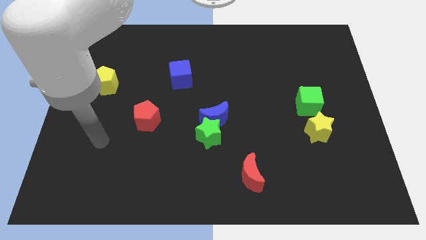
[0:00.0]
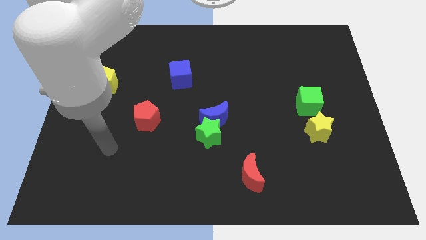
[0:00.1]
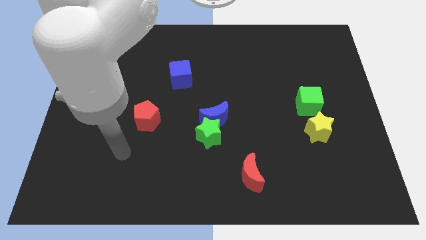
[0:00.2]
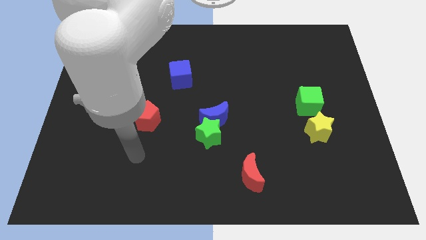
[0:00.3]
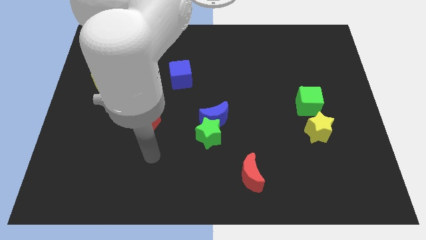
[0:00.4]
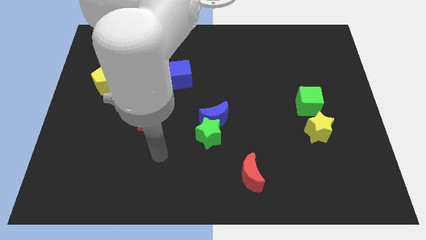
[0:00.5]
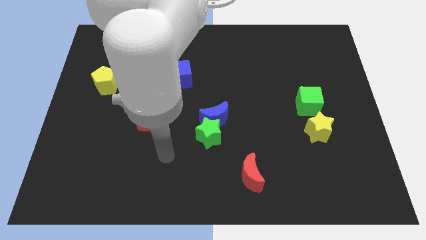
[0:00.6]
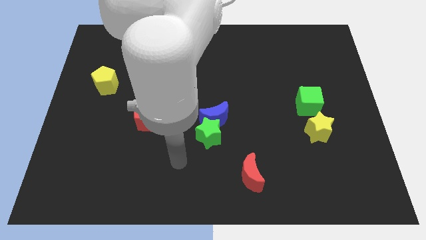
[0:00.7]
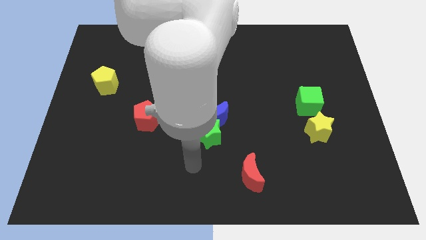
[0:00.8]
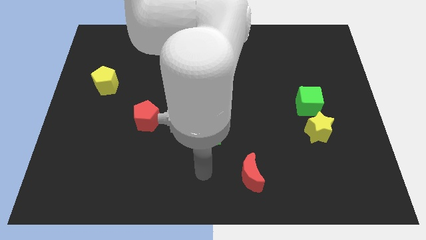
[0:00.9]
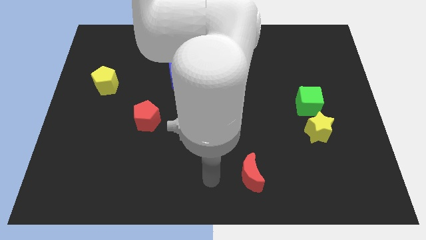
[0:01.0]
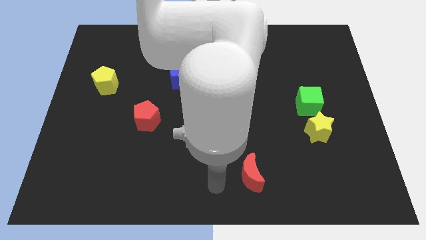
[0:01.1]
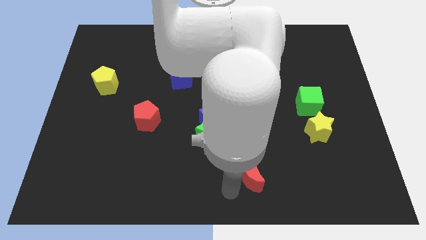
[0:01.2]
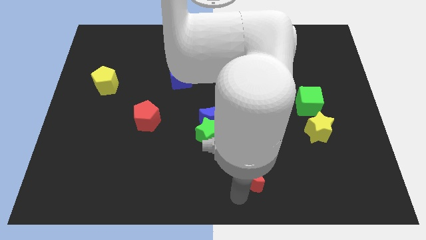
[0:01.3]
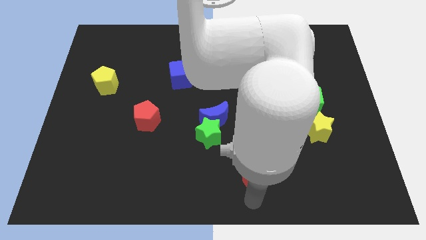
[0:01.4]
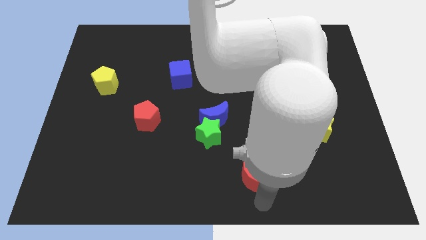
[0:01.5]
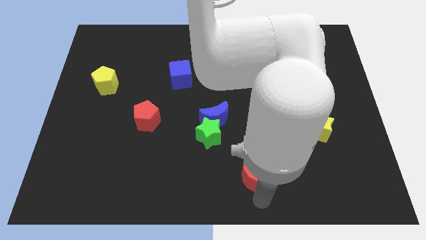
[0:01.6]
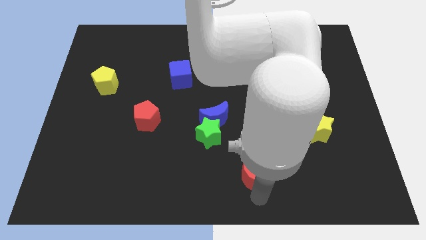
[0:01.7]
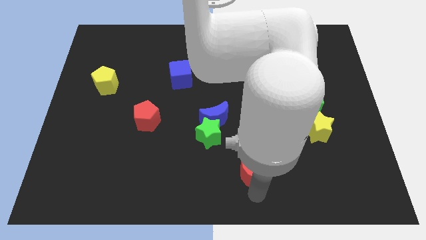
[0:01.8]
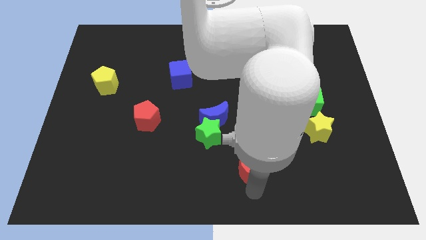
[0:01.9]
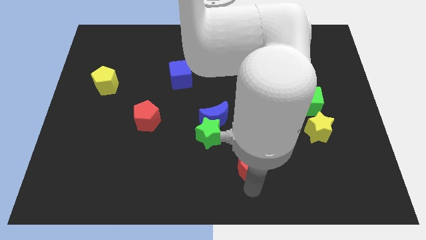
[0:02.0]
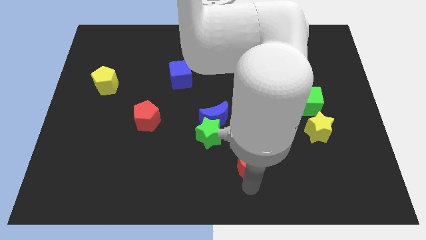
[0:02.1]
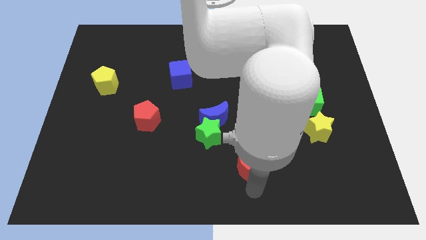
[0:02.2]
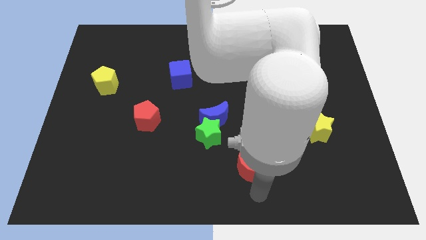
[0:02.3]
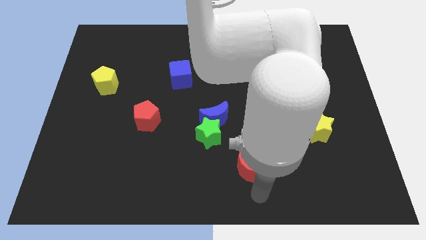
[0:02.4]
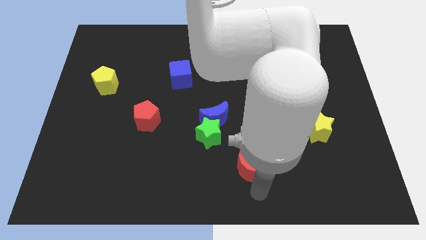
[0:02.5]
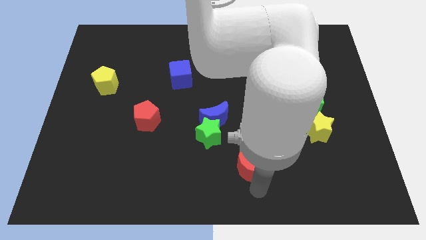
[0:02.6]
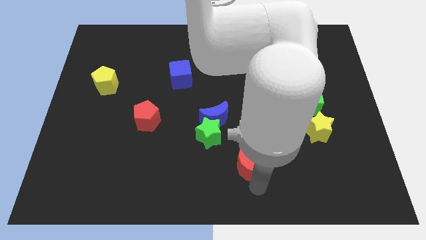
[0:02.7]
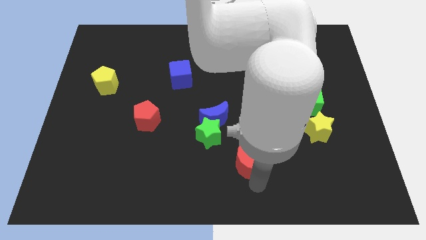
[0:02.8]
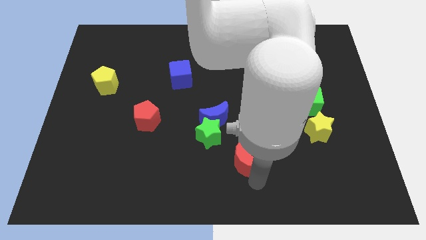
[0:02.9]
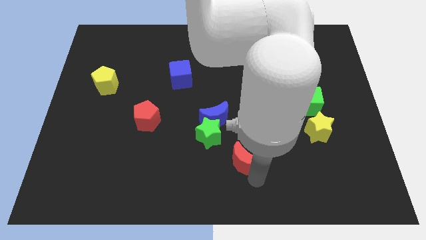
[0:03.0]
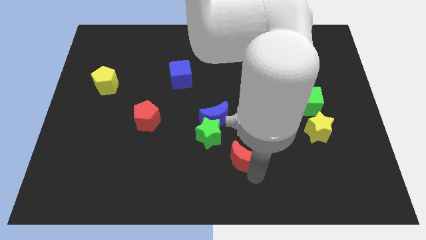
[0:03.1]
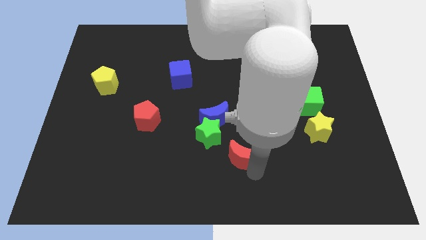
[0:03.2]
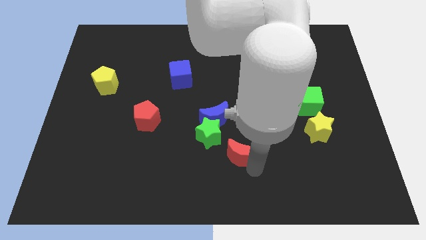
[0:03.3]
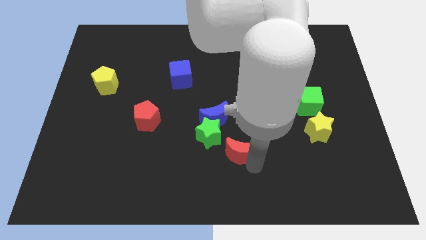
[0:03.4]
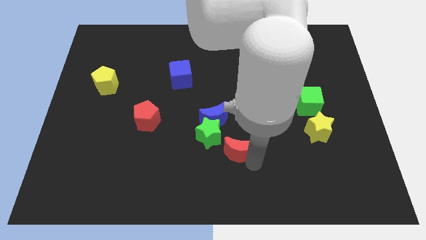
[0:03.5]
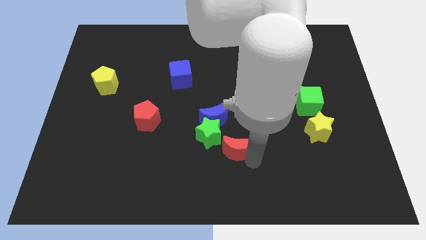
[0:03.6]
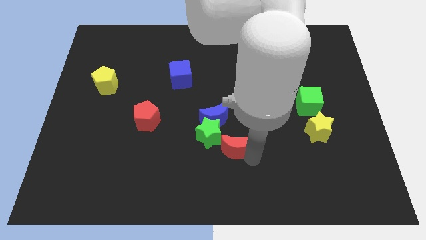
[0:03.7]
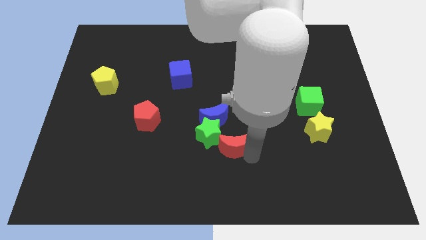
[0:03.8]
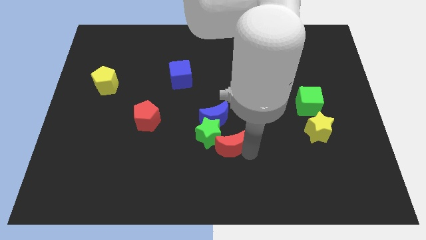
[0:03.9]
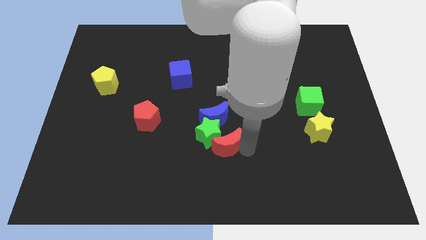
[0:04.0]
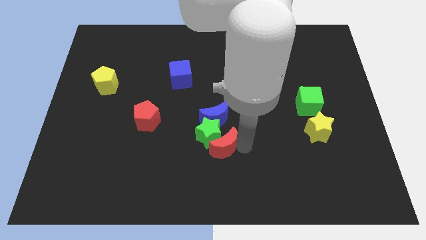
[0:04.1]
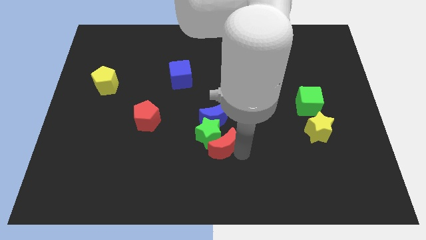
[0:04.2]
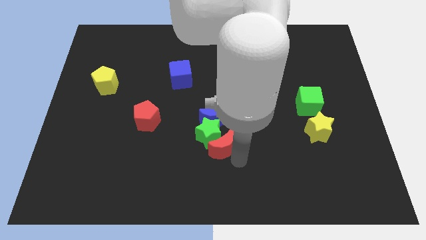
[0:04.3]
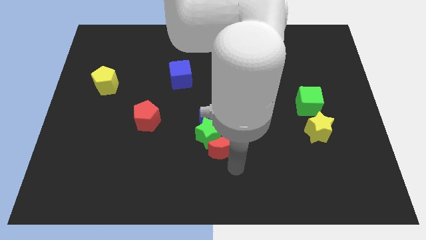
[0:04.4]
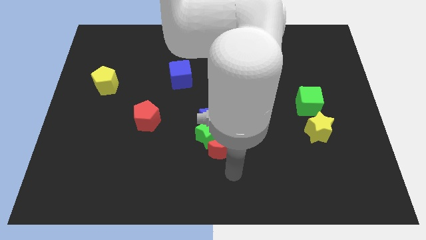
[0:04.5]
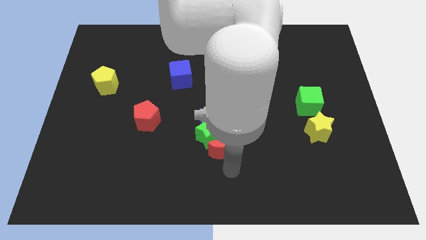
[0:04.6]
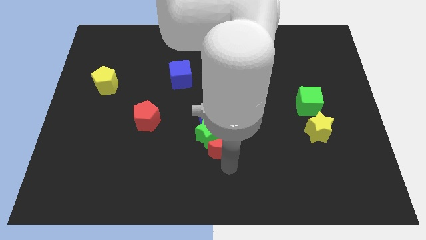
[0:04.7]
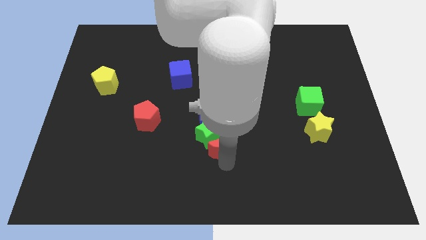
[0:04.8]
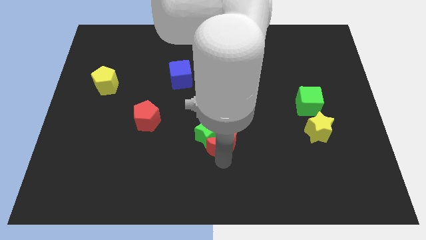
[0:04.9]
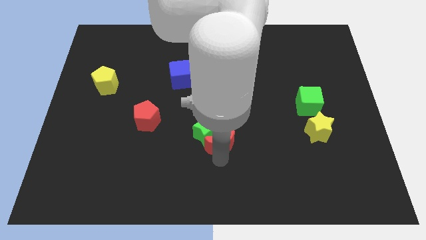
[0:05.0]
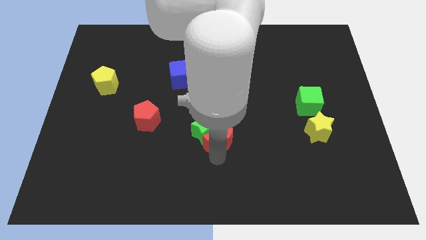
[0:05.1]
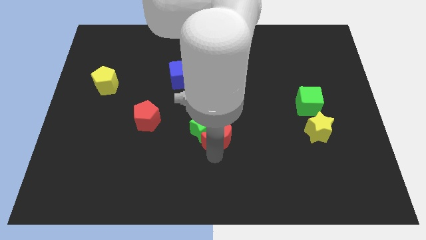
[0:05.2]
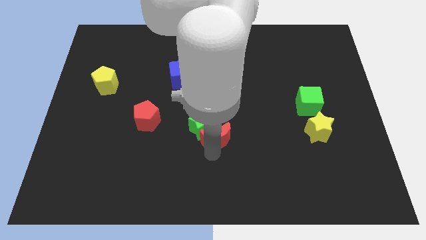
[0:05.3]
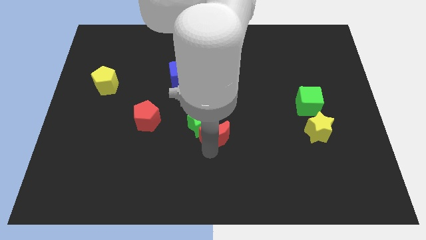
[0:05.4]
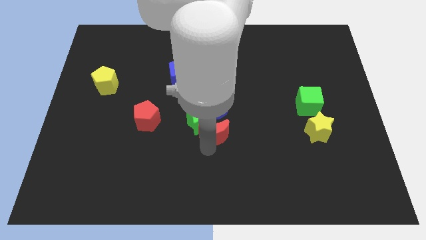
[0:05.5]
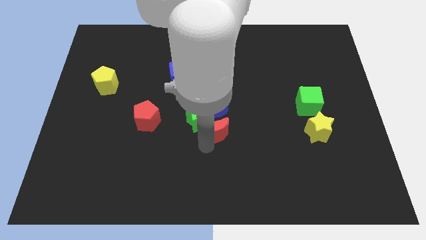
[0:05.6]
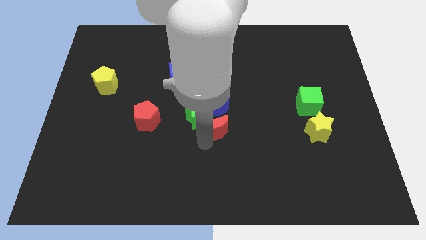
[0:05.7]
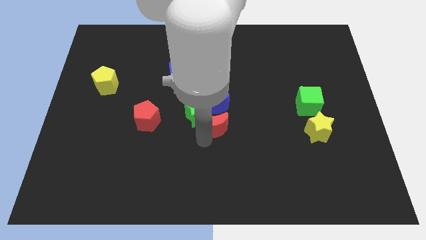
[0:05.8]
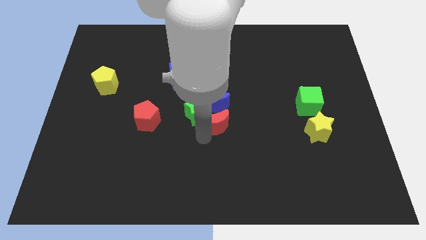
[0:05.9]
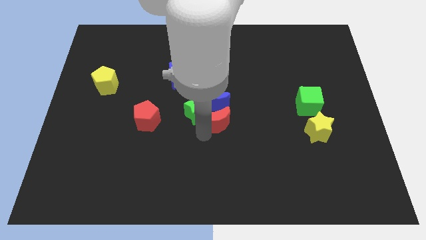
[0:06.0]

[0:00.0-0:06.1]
put the red moon next to the blue moon

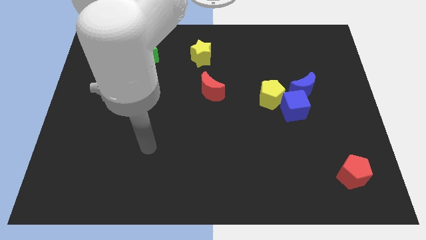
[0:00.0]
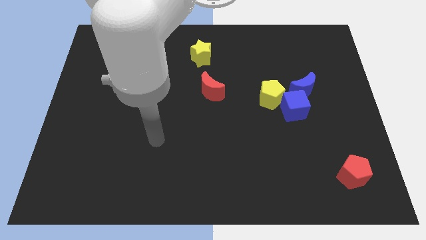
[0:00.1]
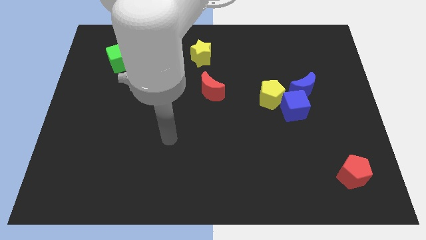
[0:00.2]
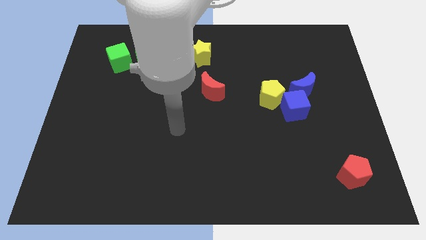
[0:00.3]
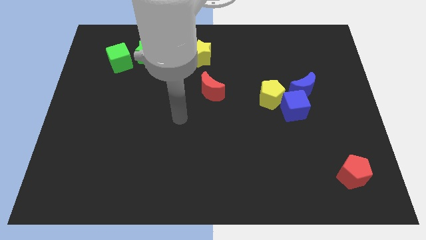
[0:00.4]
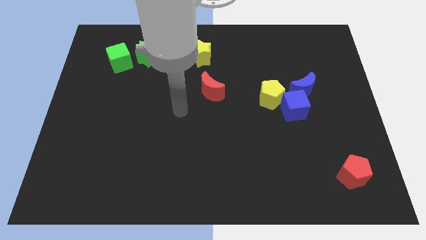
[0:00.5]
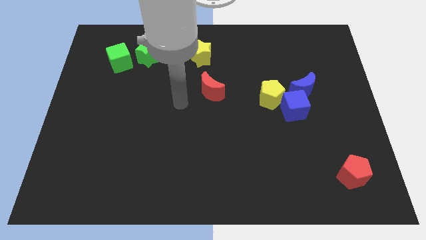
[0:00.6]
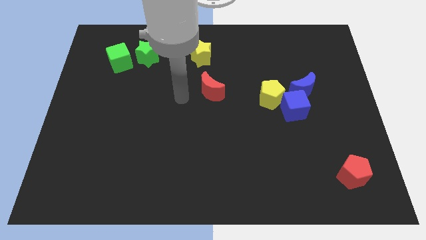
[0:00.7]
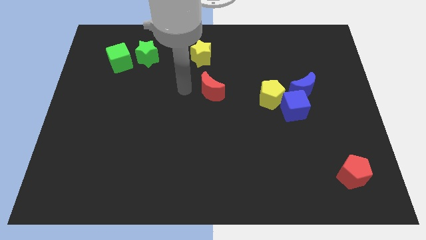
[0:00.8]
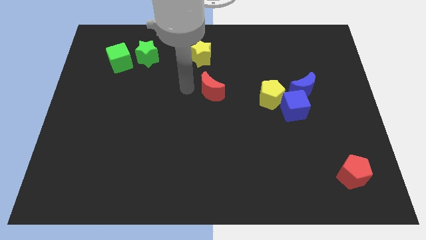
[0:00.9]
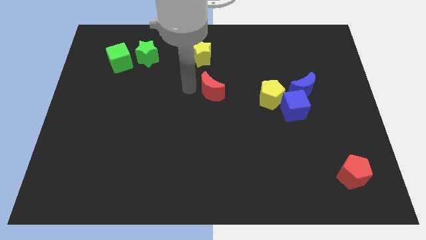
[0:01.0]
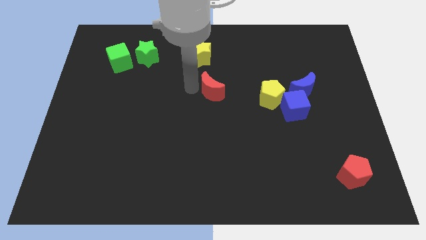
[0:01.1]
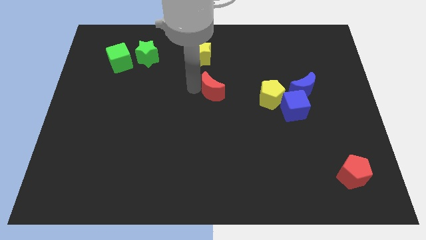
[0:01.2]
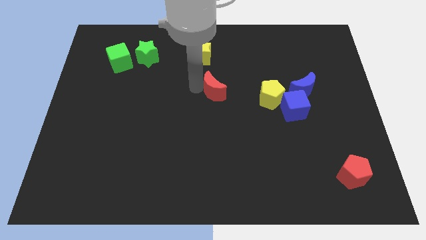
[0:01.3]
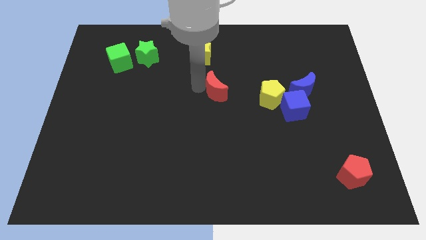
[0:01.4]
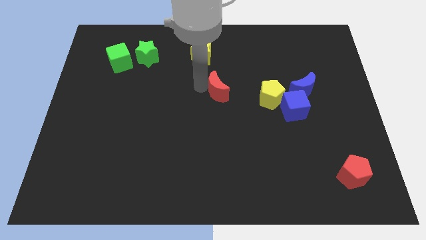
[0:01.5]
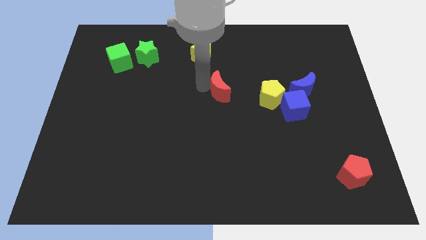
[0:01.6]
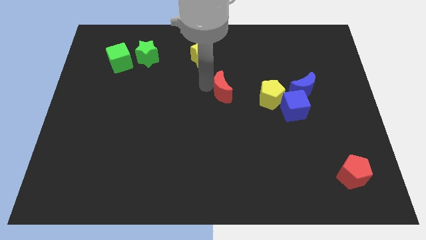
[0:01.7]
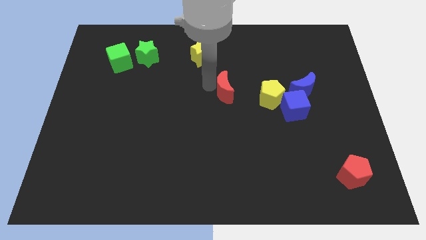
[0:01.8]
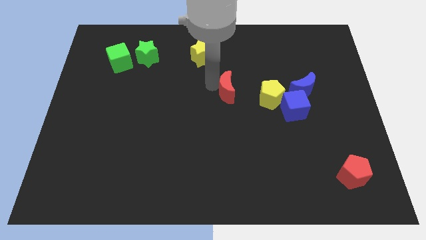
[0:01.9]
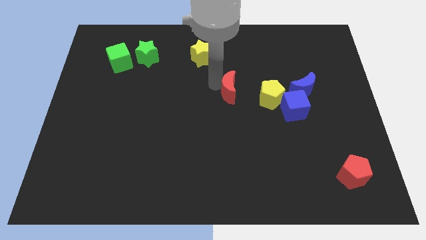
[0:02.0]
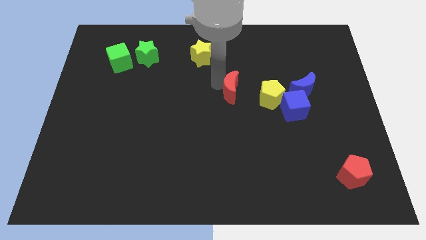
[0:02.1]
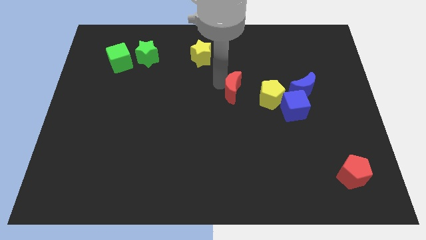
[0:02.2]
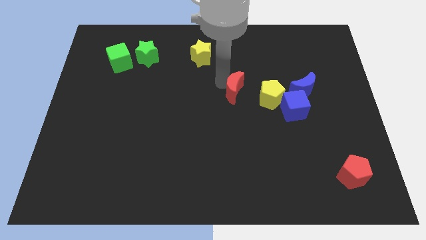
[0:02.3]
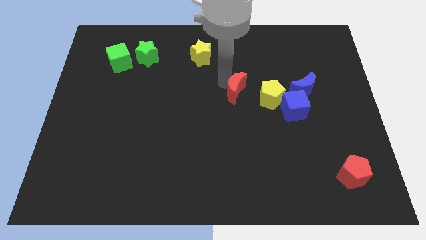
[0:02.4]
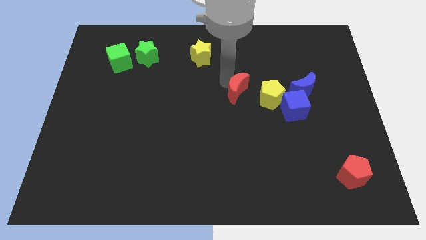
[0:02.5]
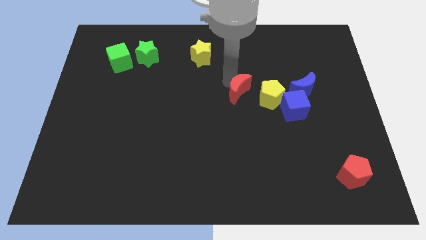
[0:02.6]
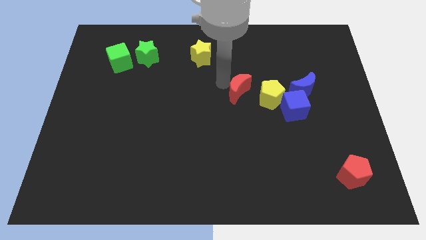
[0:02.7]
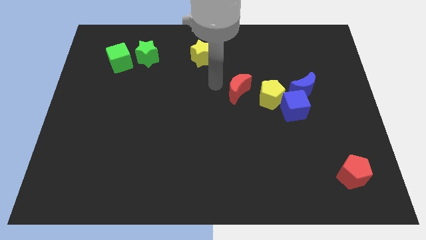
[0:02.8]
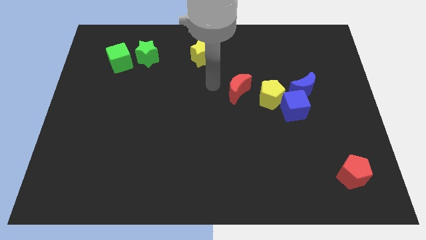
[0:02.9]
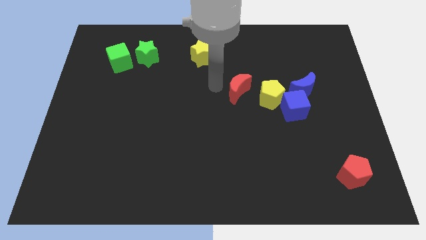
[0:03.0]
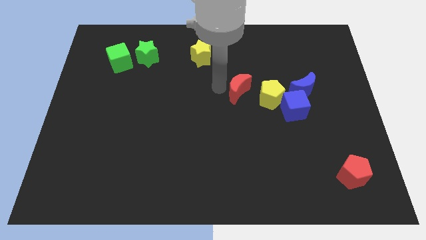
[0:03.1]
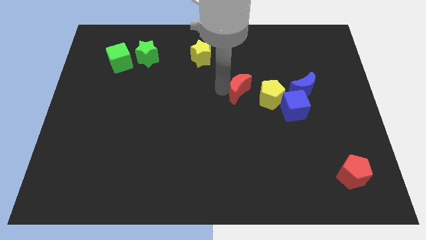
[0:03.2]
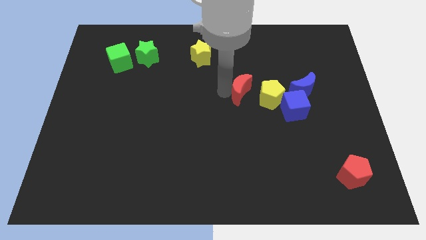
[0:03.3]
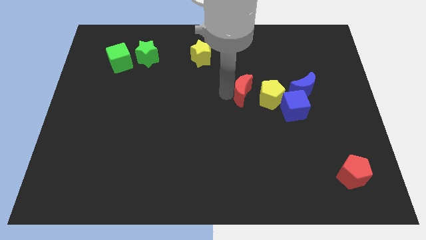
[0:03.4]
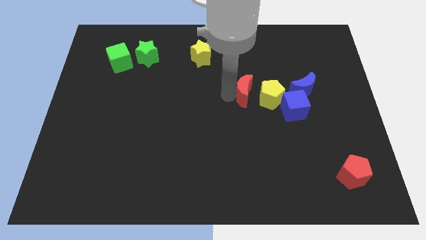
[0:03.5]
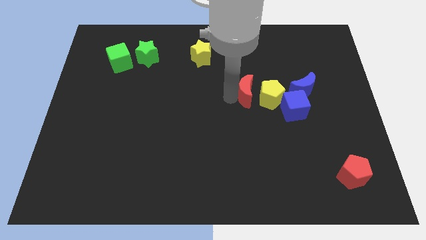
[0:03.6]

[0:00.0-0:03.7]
put the red moon towards the yellow pentagon
